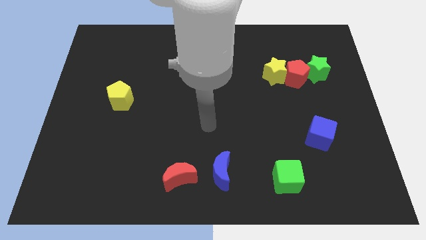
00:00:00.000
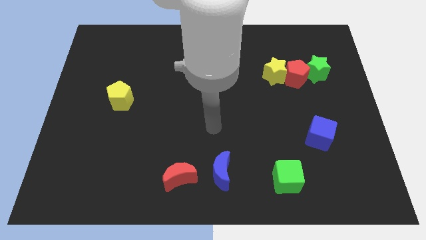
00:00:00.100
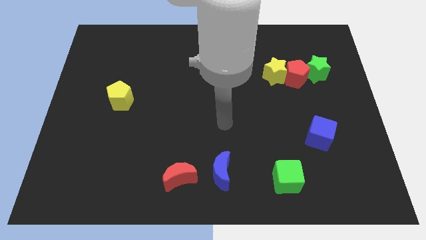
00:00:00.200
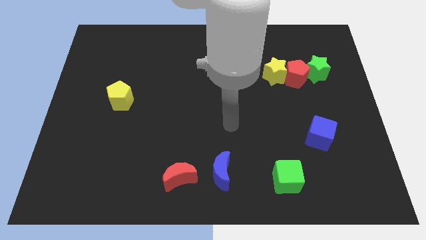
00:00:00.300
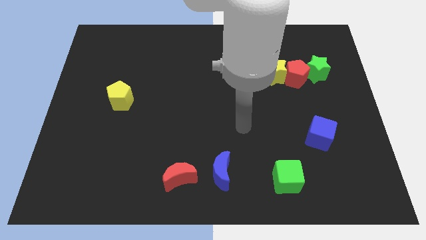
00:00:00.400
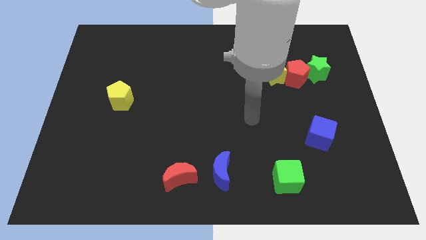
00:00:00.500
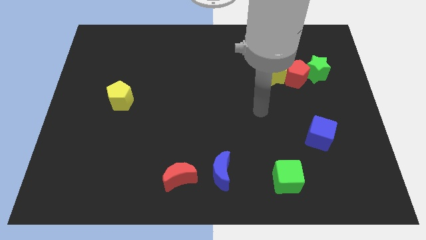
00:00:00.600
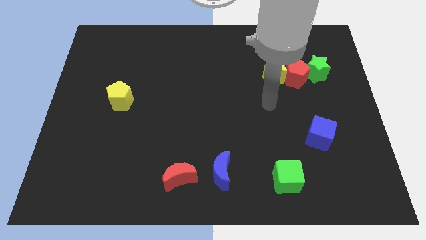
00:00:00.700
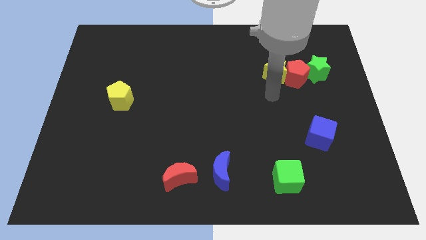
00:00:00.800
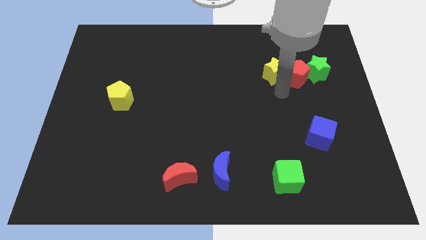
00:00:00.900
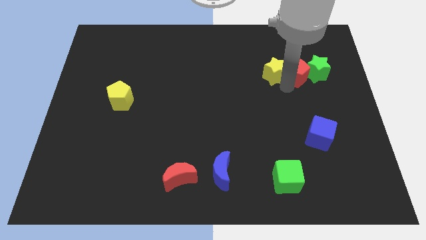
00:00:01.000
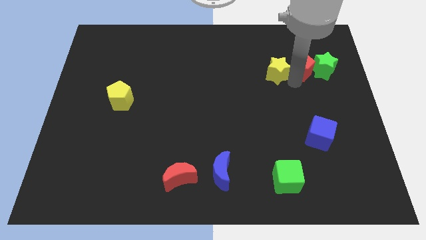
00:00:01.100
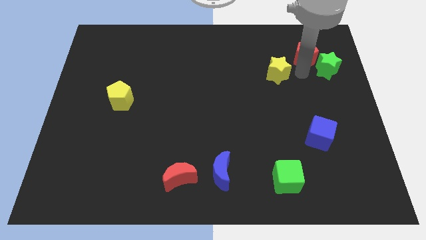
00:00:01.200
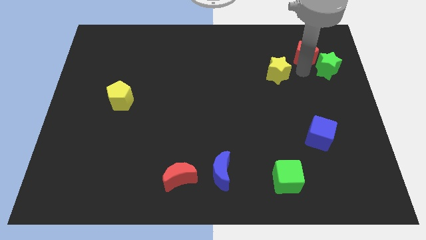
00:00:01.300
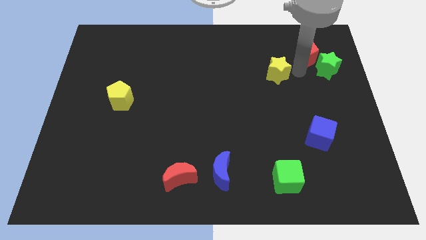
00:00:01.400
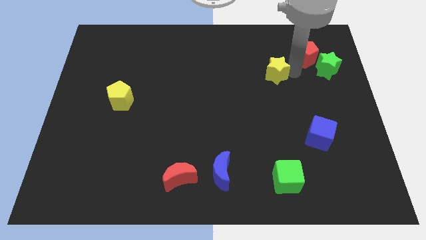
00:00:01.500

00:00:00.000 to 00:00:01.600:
separate the yellow star from the red pentagon

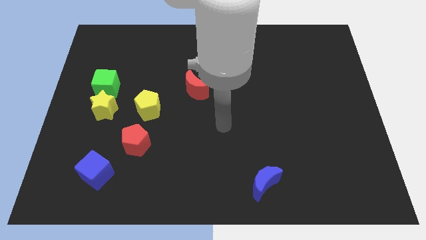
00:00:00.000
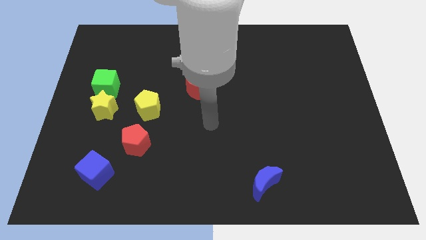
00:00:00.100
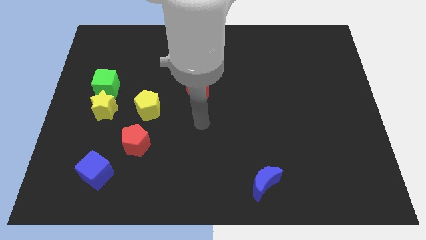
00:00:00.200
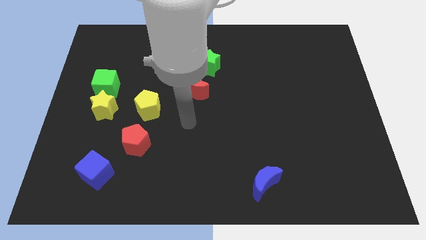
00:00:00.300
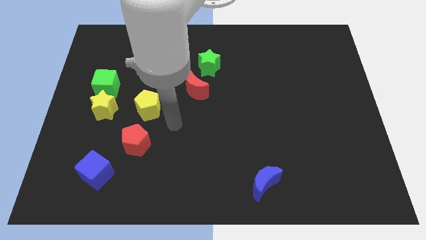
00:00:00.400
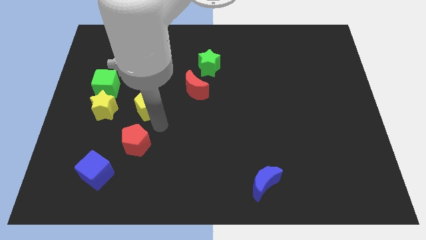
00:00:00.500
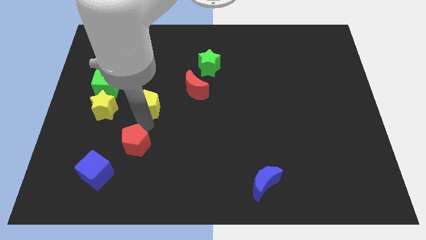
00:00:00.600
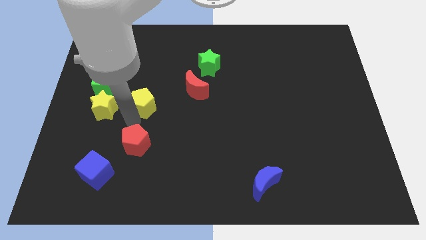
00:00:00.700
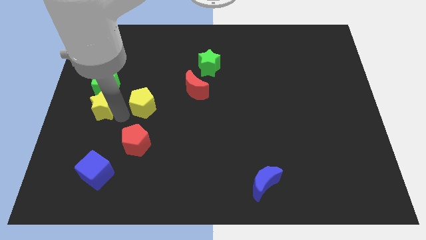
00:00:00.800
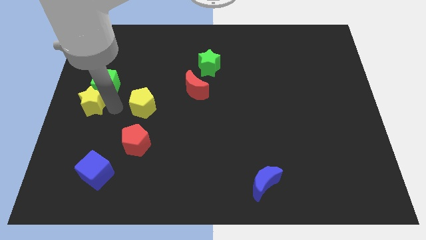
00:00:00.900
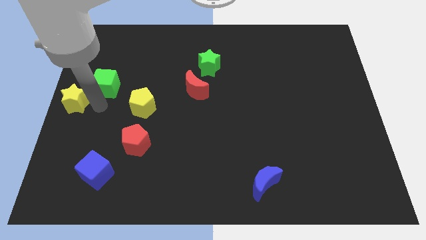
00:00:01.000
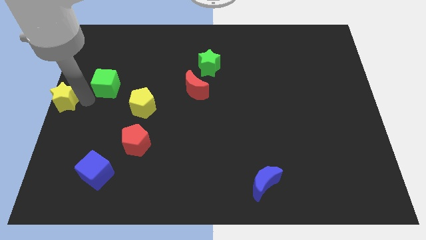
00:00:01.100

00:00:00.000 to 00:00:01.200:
pull the green cube apart from the yellow star

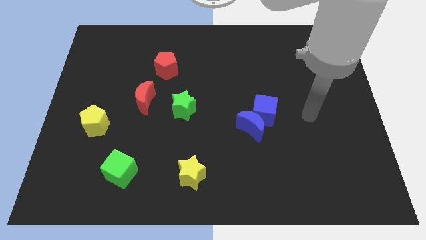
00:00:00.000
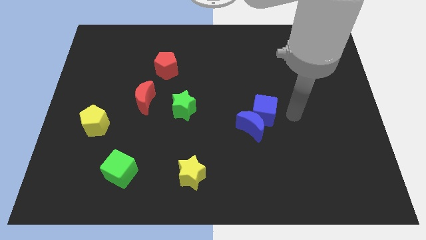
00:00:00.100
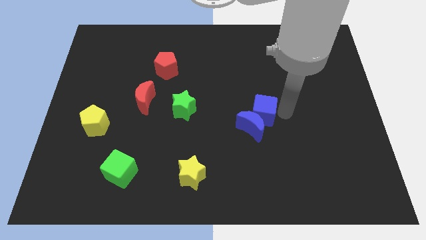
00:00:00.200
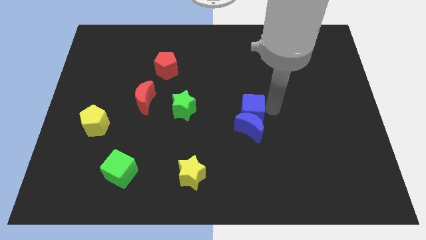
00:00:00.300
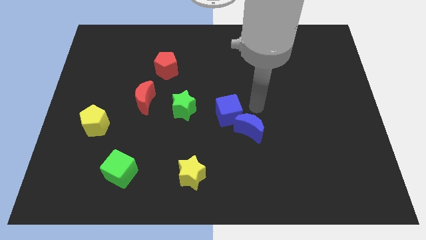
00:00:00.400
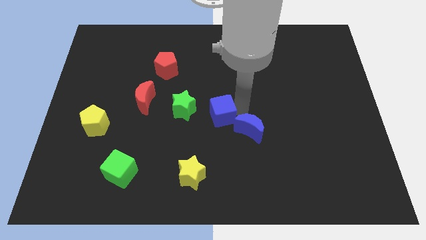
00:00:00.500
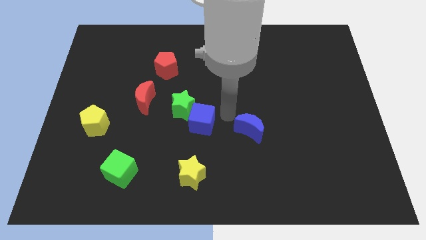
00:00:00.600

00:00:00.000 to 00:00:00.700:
move the blue moon away from the blue cube

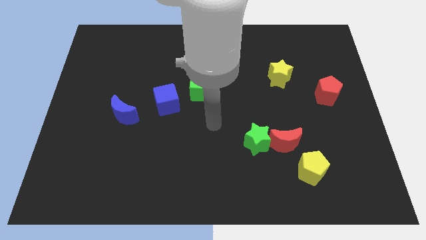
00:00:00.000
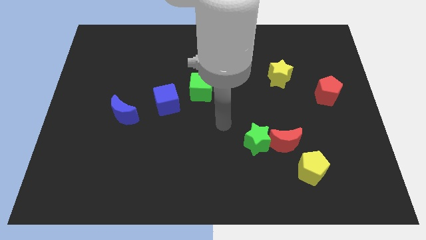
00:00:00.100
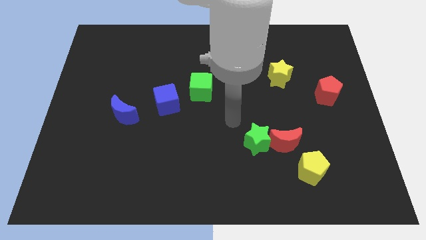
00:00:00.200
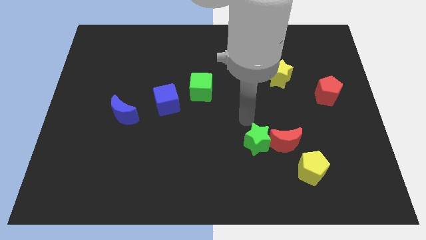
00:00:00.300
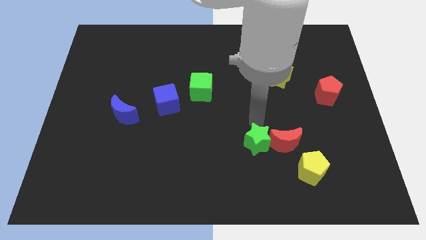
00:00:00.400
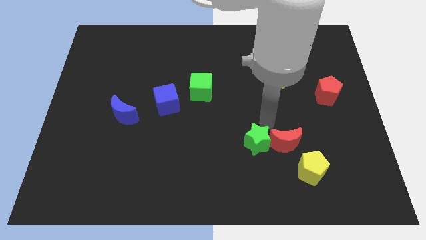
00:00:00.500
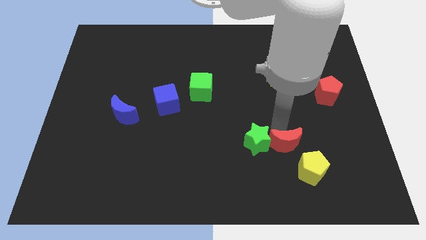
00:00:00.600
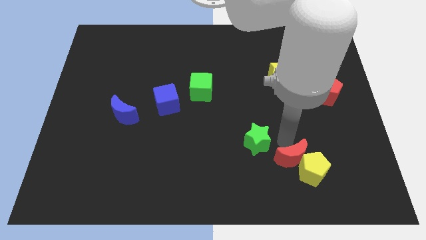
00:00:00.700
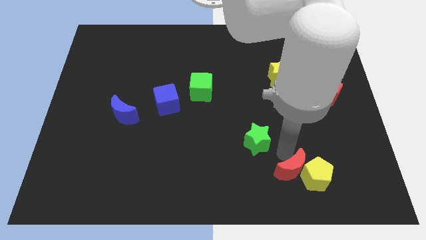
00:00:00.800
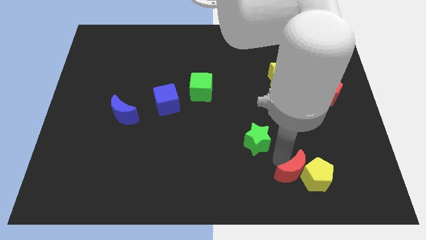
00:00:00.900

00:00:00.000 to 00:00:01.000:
pull the green star apart from the red moon

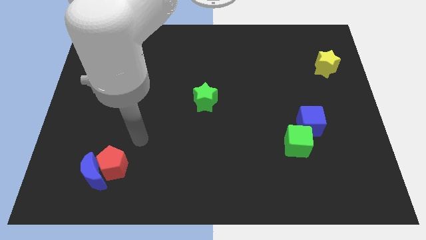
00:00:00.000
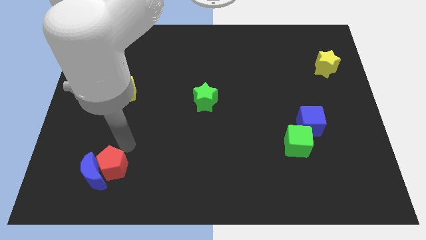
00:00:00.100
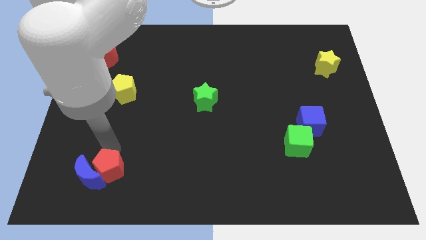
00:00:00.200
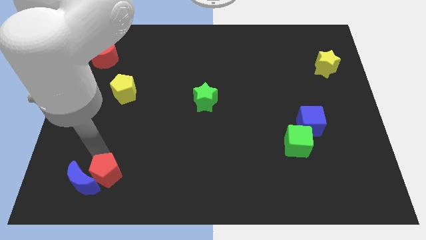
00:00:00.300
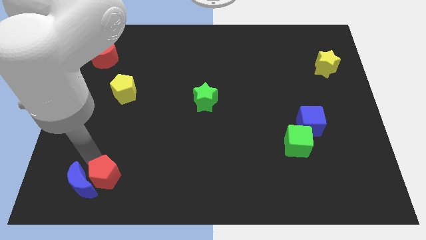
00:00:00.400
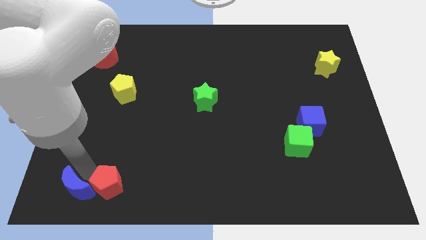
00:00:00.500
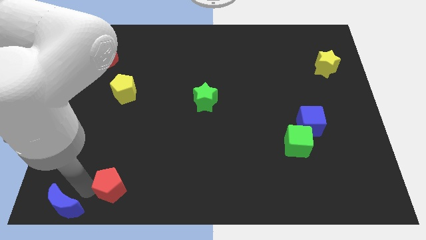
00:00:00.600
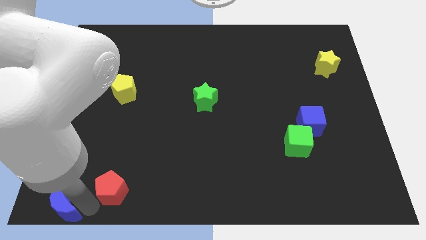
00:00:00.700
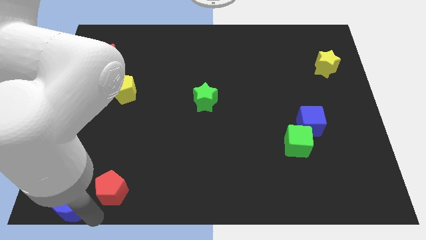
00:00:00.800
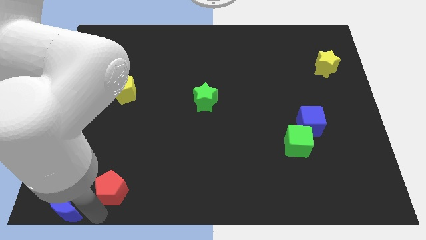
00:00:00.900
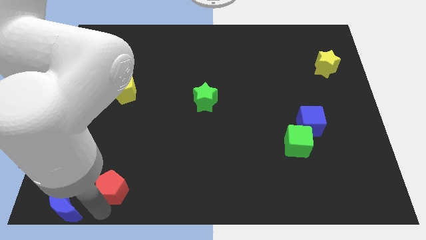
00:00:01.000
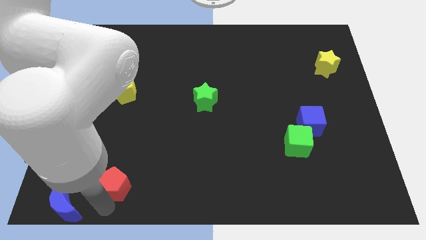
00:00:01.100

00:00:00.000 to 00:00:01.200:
separate the red pentagon from the blue moon

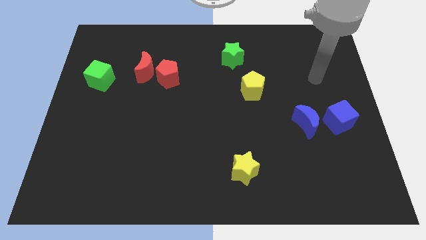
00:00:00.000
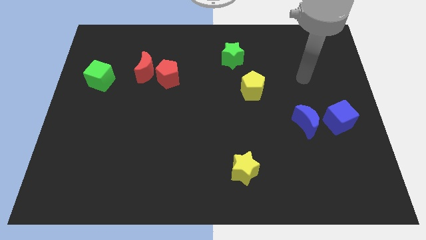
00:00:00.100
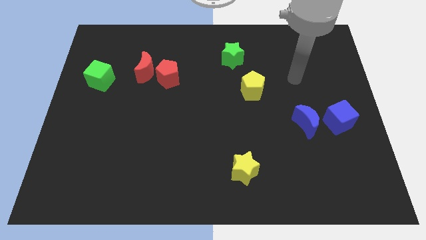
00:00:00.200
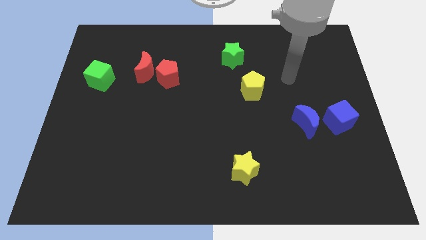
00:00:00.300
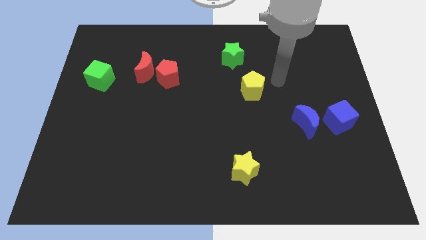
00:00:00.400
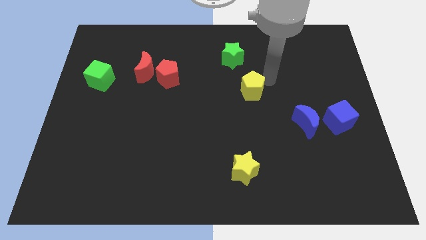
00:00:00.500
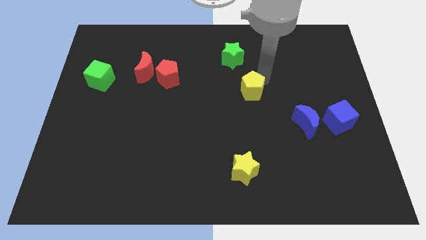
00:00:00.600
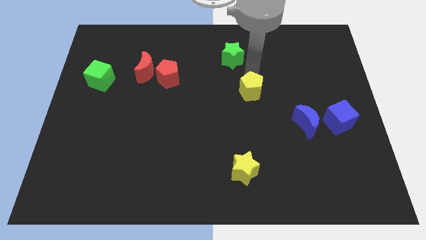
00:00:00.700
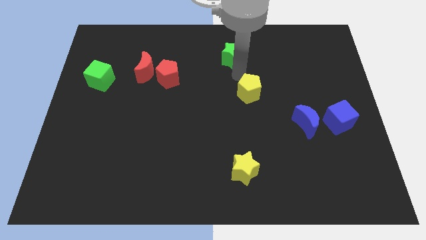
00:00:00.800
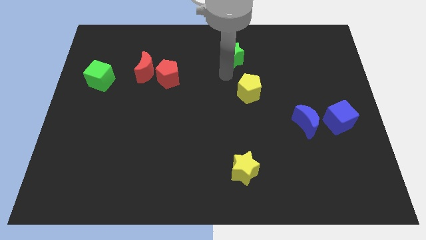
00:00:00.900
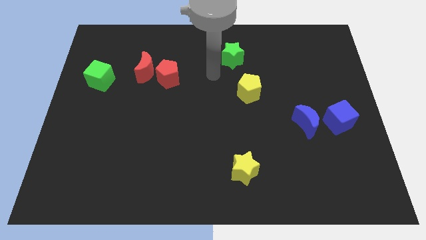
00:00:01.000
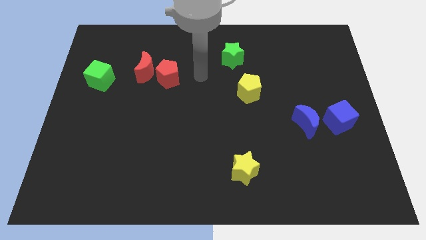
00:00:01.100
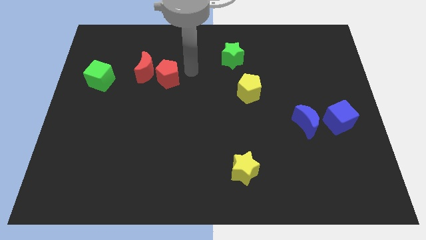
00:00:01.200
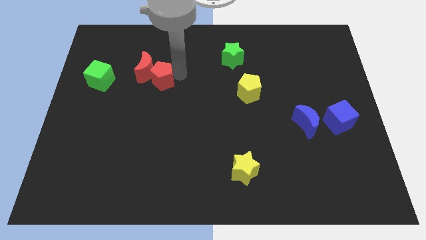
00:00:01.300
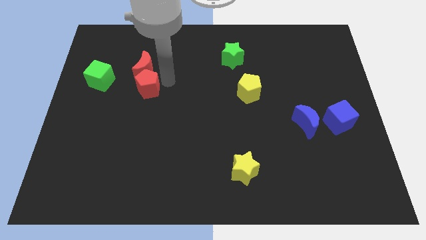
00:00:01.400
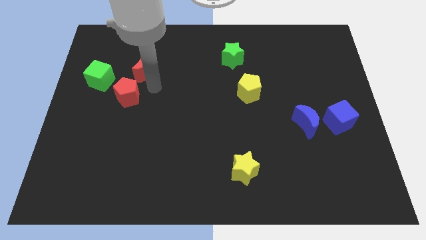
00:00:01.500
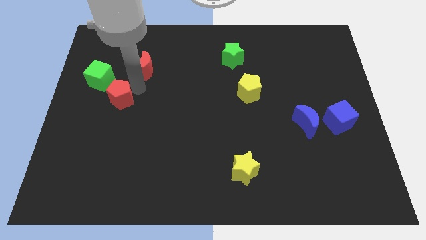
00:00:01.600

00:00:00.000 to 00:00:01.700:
separate the red moon from the red pentagon

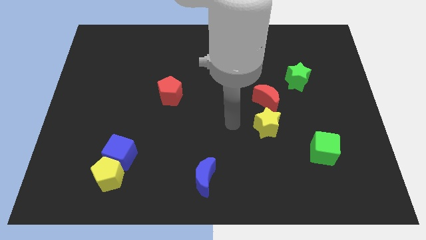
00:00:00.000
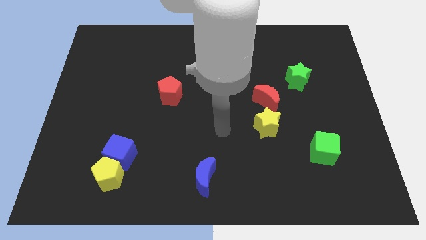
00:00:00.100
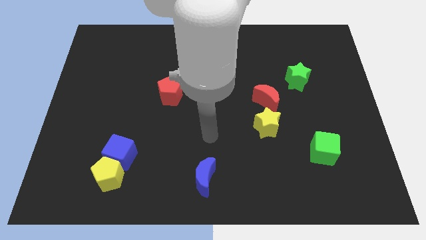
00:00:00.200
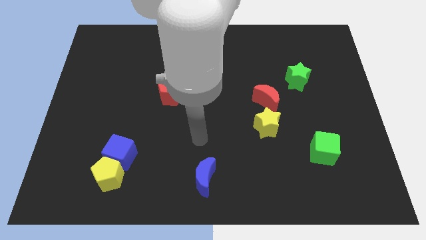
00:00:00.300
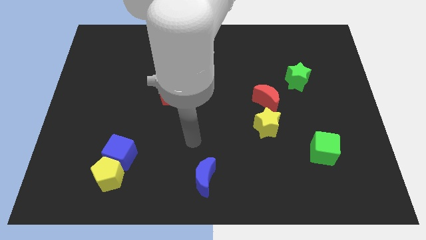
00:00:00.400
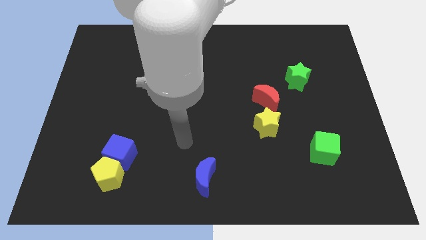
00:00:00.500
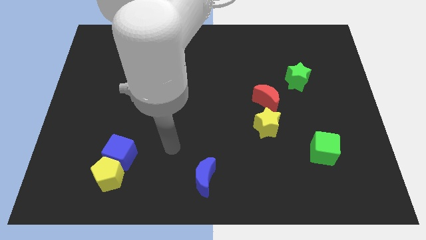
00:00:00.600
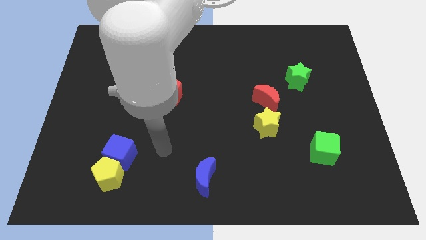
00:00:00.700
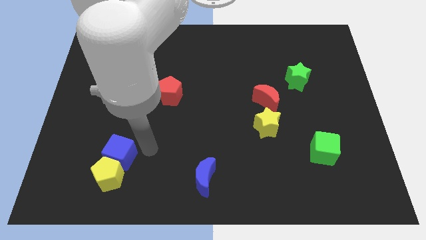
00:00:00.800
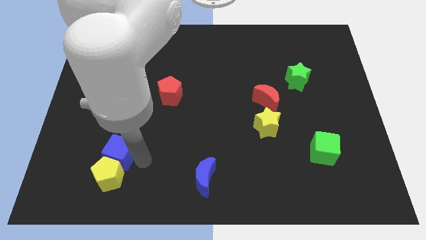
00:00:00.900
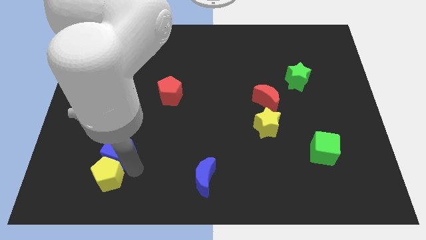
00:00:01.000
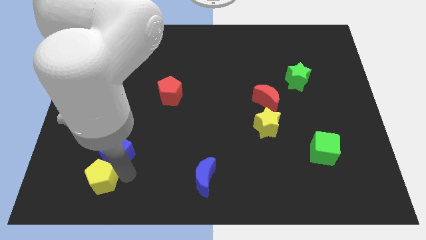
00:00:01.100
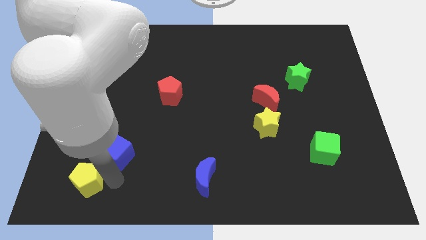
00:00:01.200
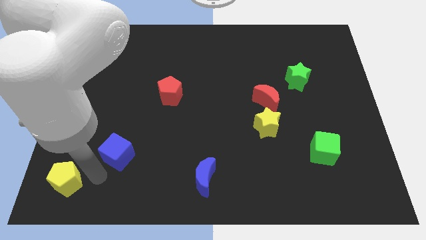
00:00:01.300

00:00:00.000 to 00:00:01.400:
pull the blue cube apart from the yellow pentagon

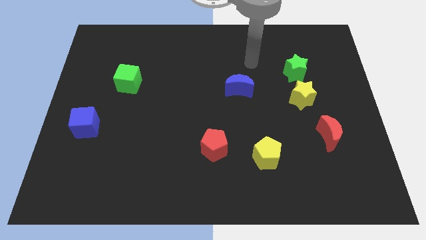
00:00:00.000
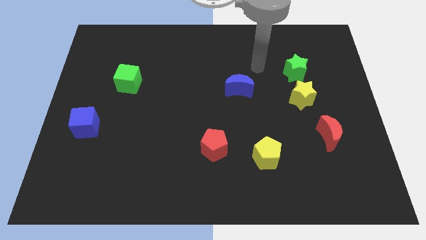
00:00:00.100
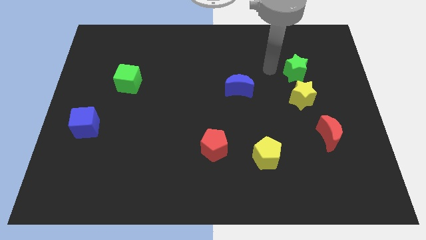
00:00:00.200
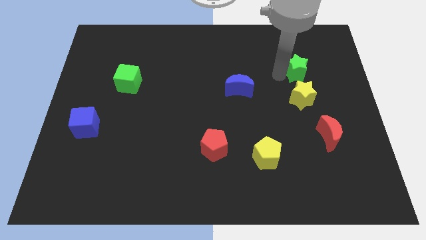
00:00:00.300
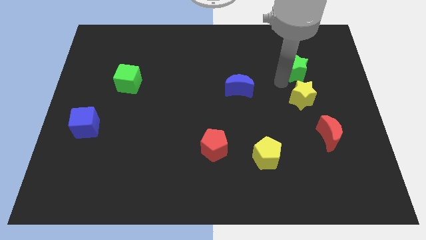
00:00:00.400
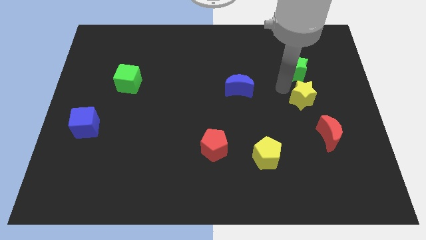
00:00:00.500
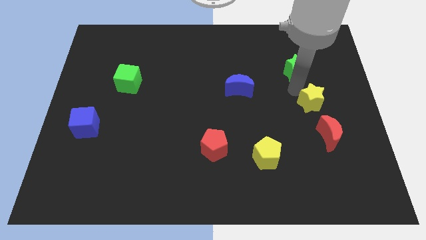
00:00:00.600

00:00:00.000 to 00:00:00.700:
pull the green star apart from the yellow star
